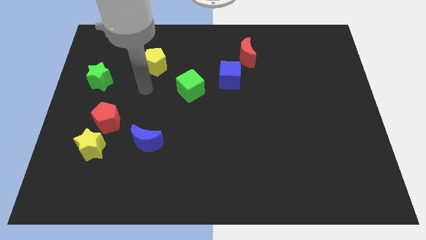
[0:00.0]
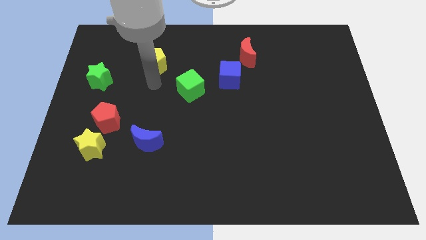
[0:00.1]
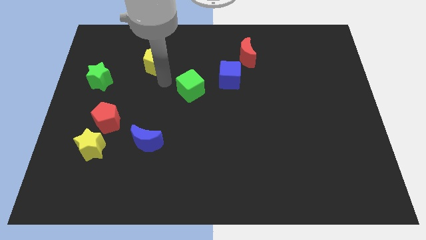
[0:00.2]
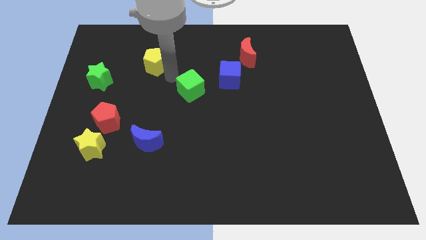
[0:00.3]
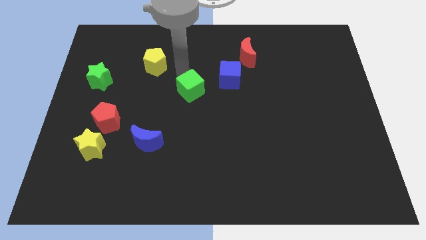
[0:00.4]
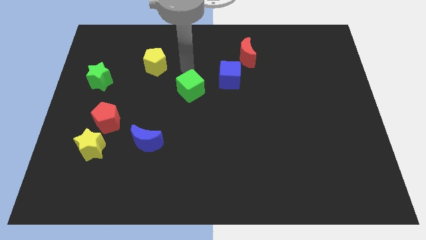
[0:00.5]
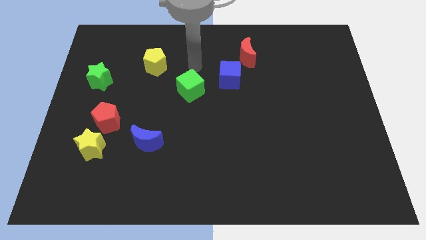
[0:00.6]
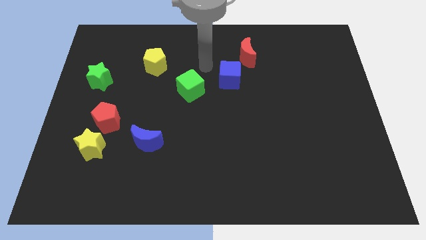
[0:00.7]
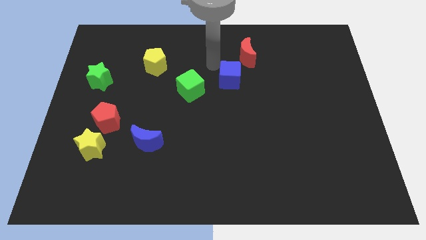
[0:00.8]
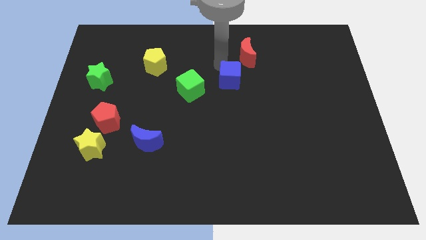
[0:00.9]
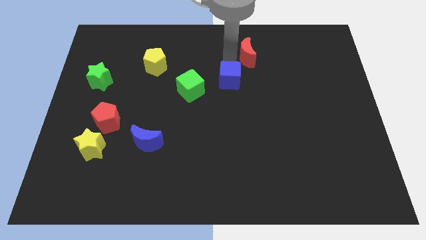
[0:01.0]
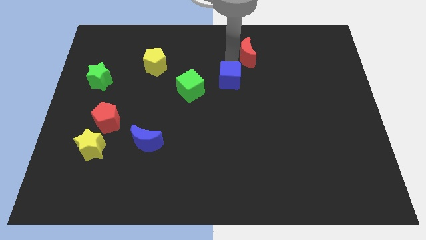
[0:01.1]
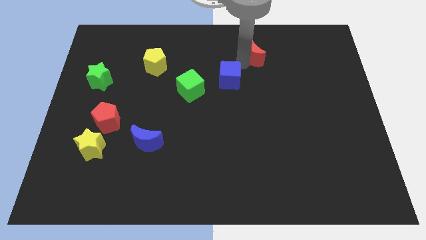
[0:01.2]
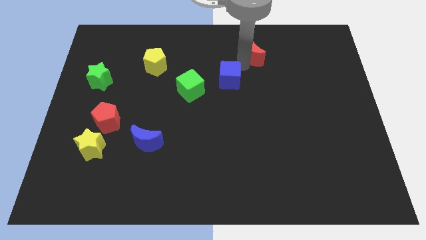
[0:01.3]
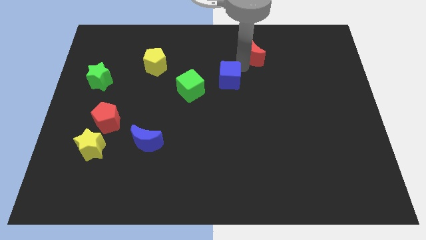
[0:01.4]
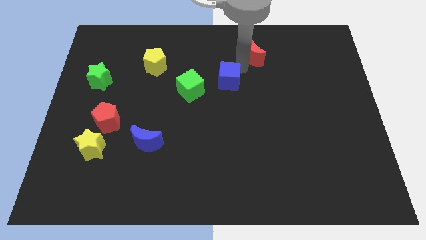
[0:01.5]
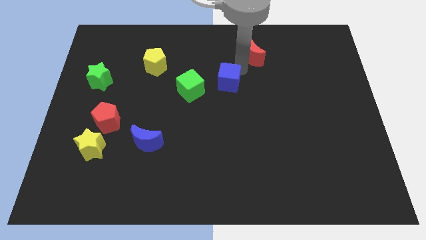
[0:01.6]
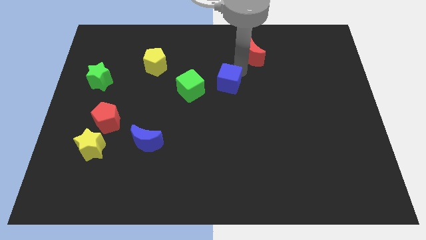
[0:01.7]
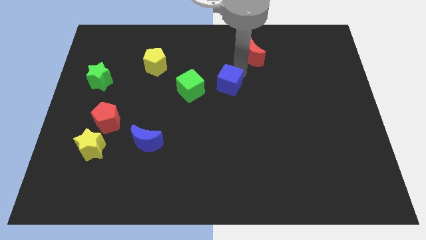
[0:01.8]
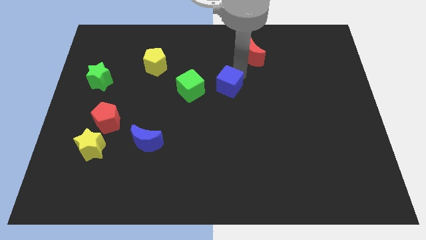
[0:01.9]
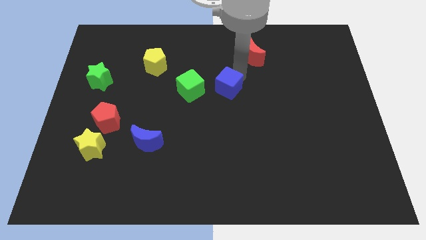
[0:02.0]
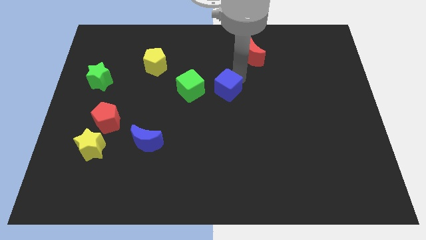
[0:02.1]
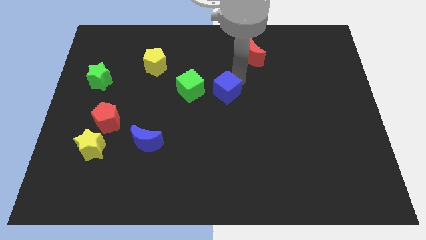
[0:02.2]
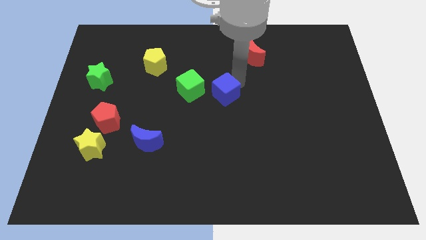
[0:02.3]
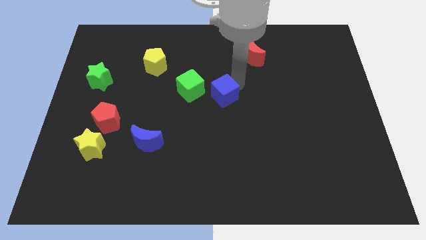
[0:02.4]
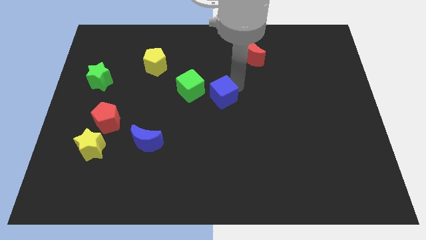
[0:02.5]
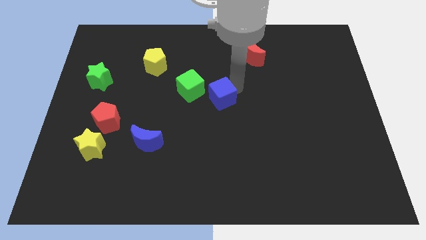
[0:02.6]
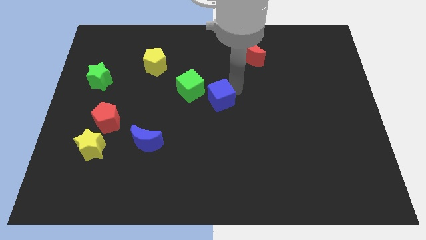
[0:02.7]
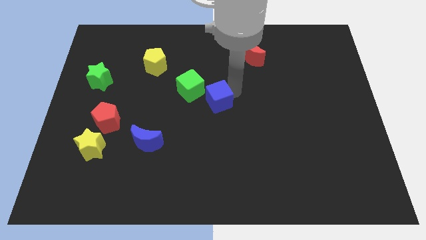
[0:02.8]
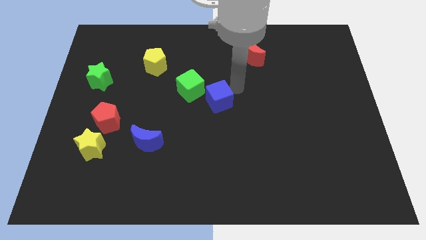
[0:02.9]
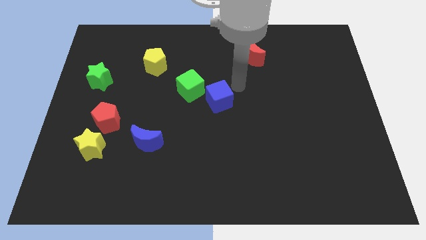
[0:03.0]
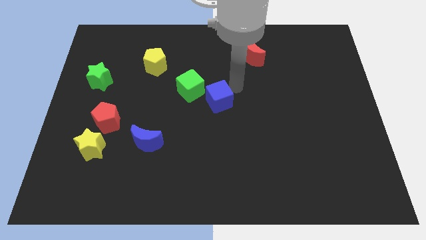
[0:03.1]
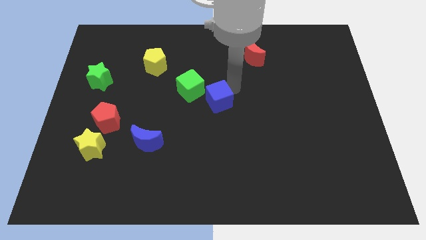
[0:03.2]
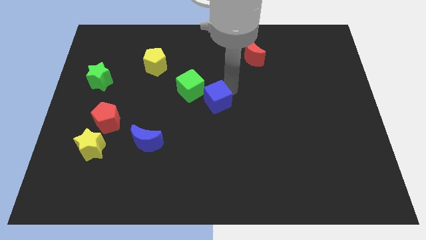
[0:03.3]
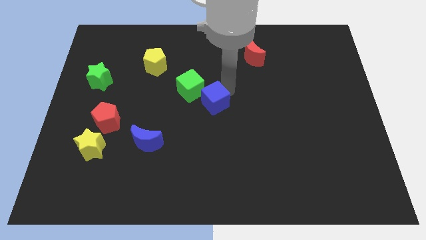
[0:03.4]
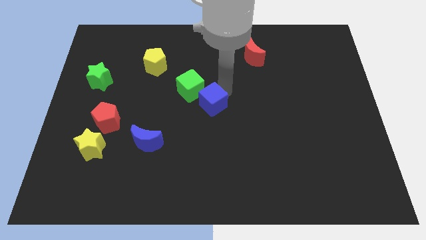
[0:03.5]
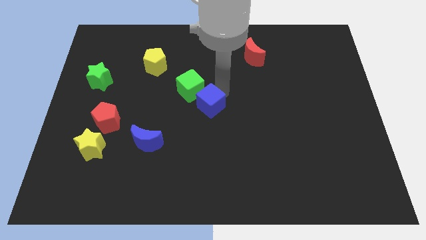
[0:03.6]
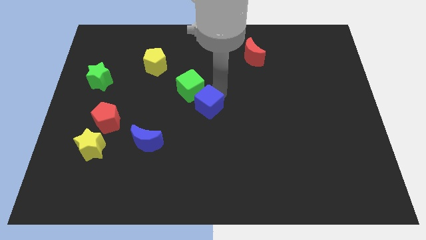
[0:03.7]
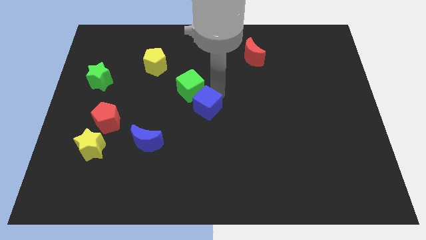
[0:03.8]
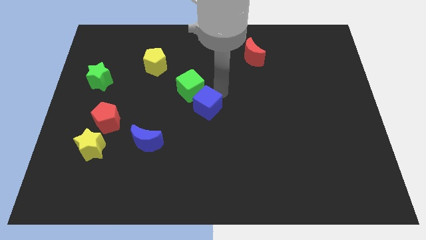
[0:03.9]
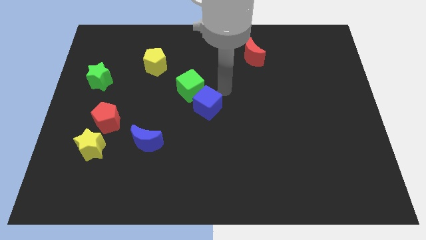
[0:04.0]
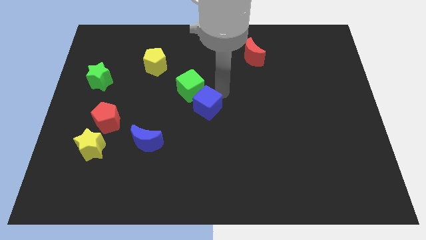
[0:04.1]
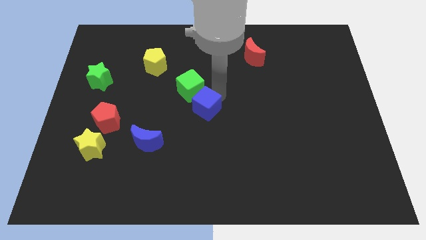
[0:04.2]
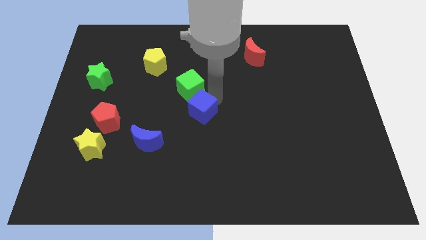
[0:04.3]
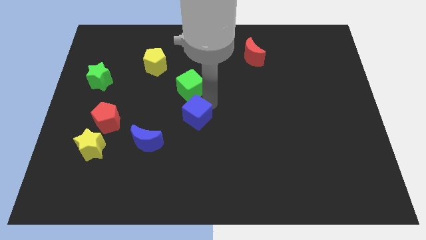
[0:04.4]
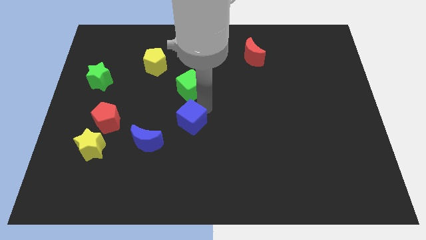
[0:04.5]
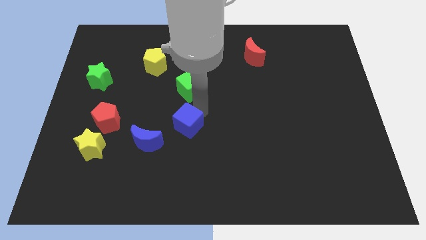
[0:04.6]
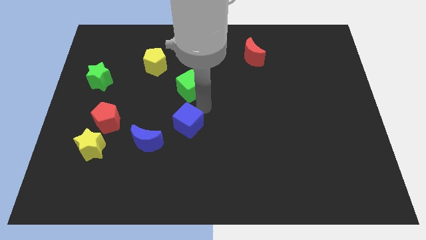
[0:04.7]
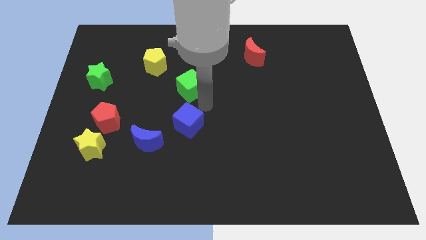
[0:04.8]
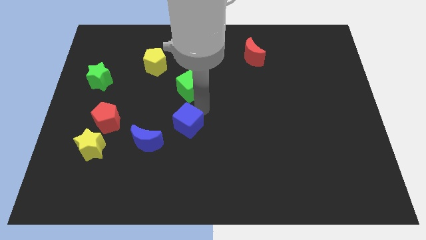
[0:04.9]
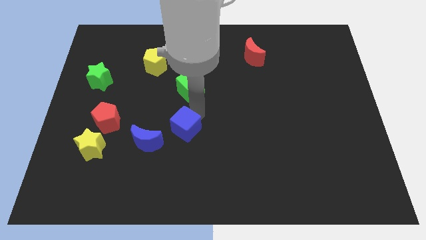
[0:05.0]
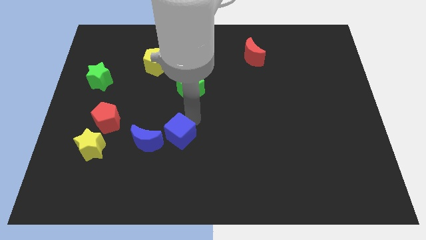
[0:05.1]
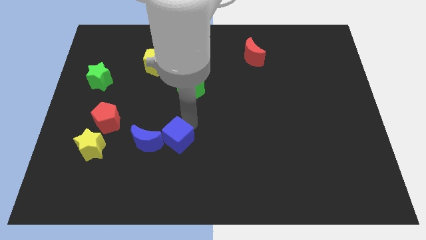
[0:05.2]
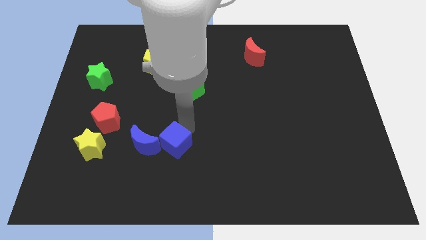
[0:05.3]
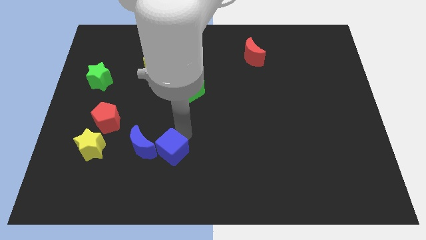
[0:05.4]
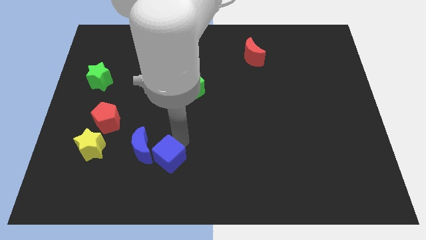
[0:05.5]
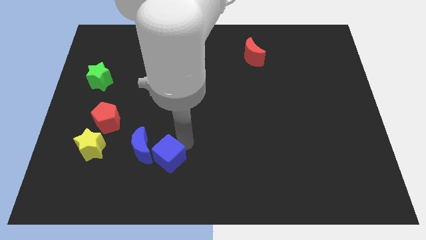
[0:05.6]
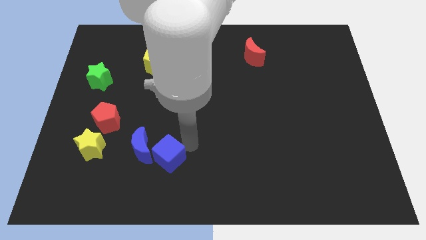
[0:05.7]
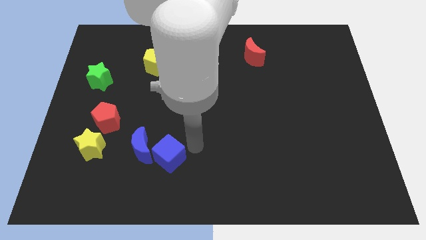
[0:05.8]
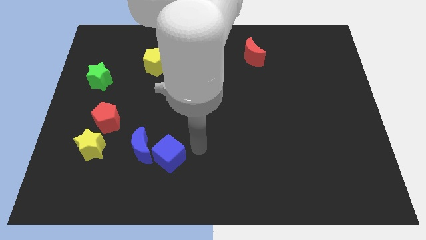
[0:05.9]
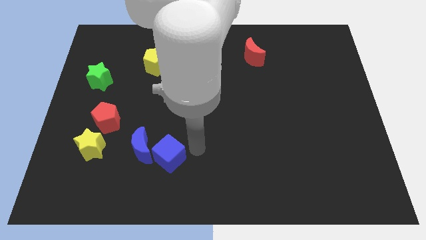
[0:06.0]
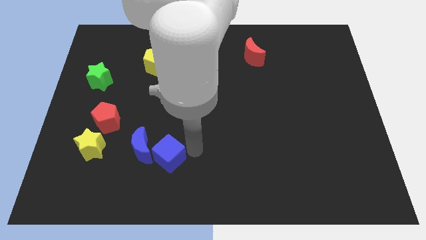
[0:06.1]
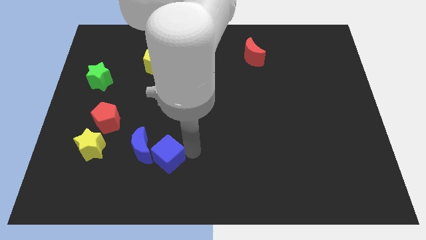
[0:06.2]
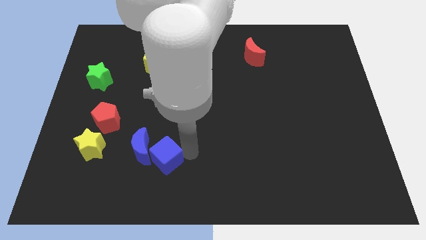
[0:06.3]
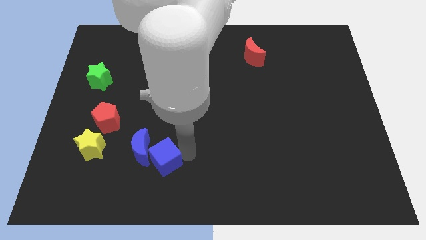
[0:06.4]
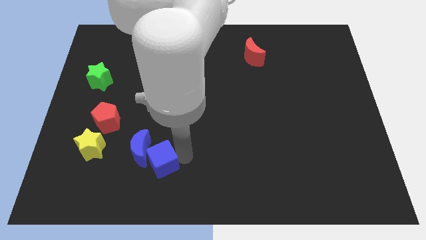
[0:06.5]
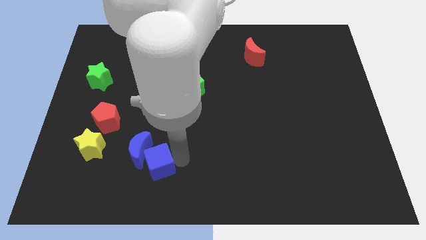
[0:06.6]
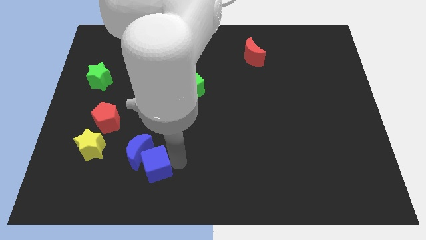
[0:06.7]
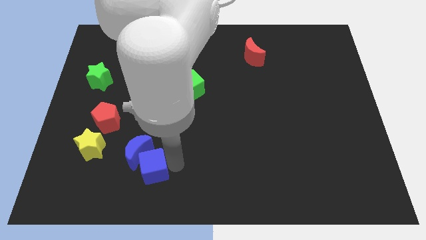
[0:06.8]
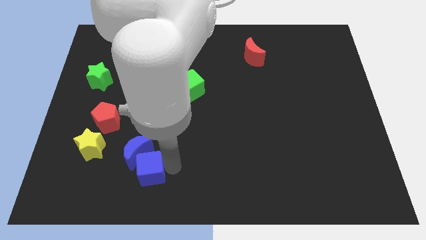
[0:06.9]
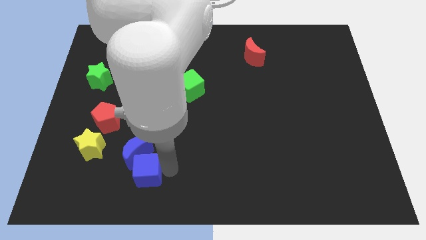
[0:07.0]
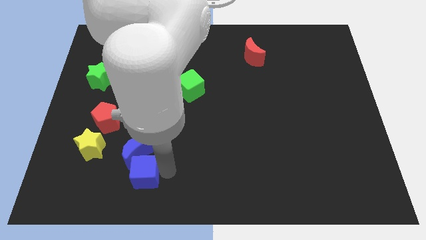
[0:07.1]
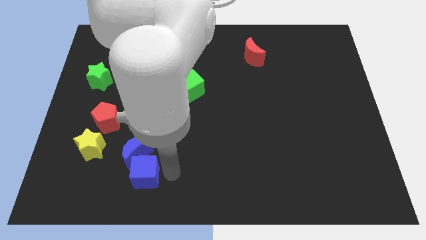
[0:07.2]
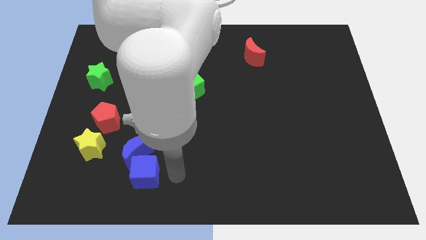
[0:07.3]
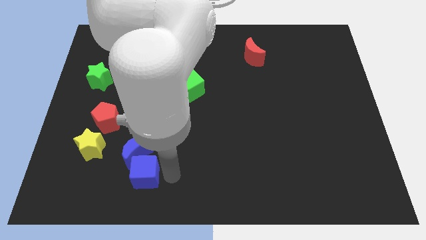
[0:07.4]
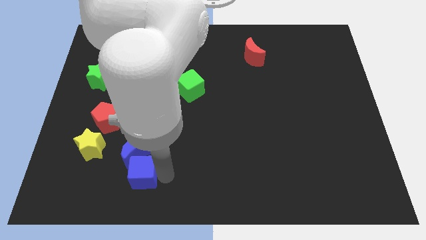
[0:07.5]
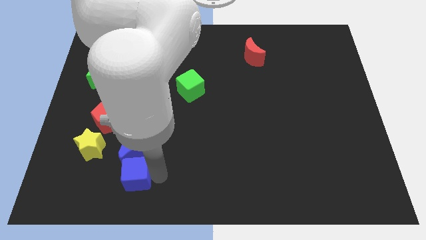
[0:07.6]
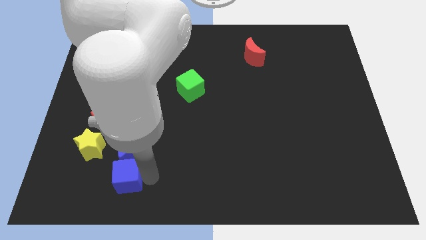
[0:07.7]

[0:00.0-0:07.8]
put the blue cube to the bottom right of the yellow star

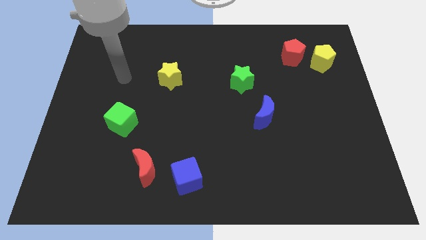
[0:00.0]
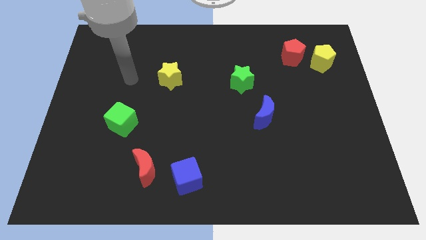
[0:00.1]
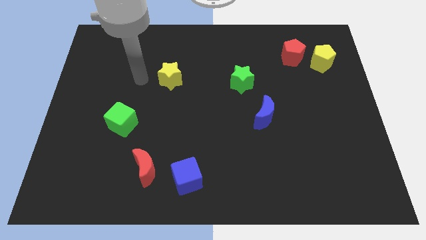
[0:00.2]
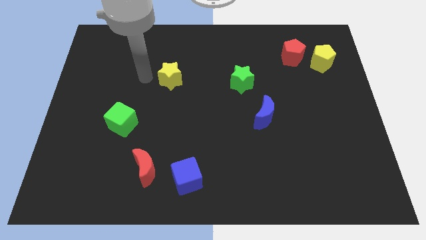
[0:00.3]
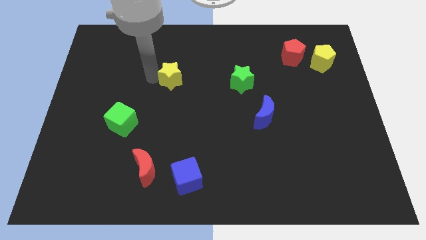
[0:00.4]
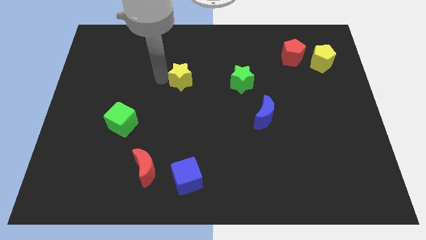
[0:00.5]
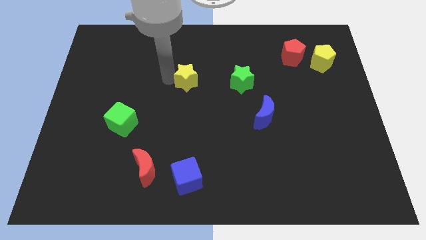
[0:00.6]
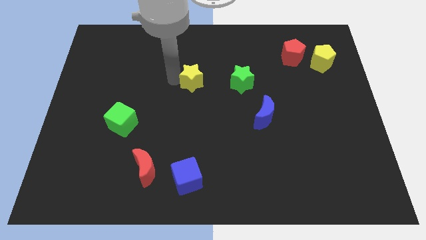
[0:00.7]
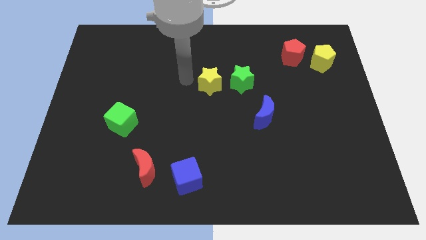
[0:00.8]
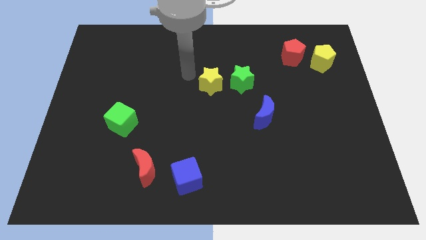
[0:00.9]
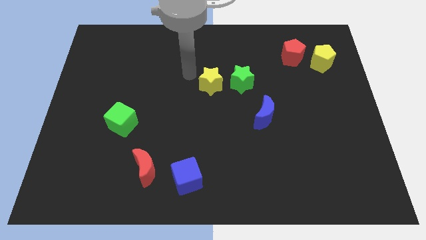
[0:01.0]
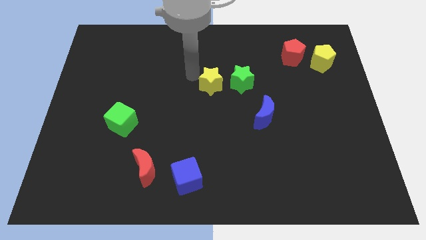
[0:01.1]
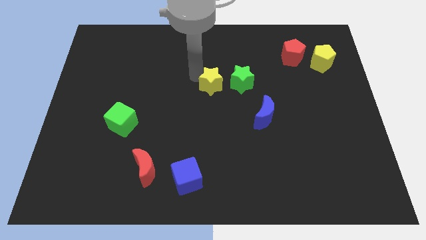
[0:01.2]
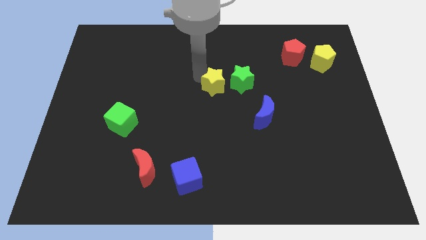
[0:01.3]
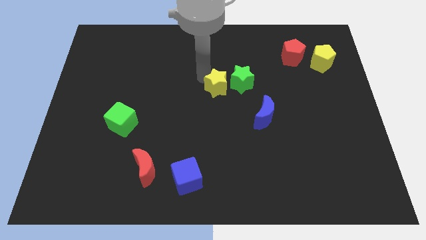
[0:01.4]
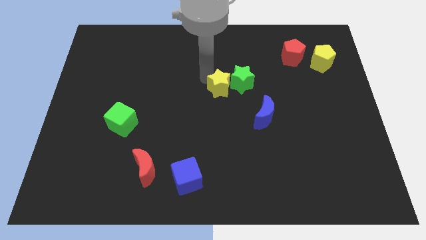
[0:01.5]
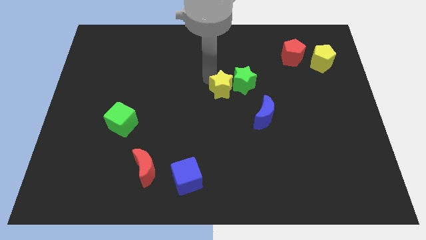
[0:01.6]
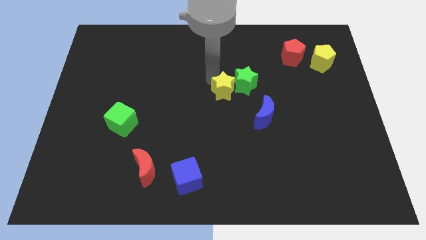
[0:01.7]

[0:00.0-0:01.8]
push the yellow star to the top left side of the blue moon
